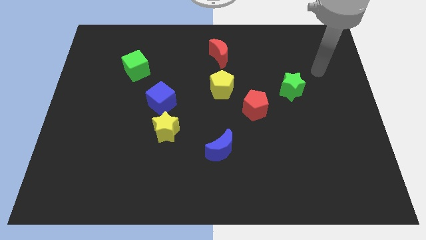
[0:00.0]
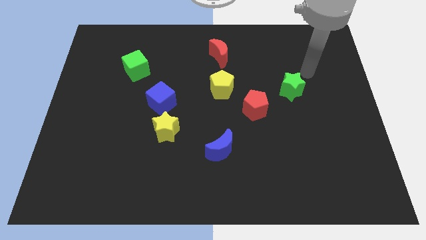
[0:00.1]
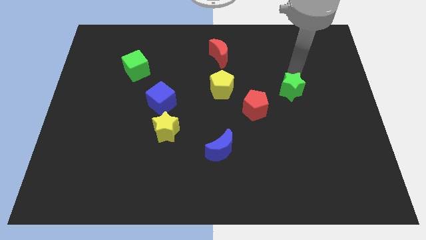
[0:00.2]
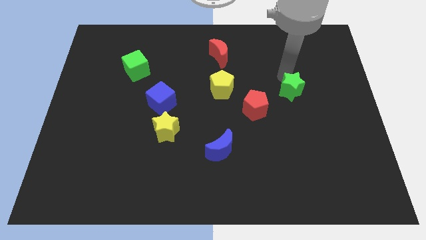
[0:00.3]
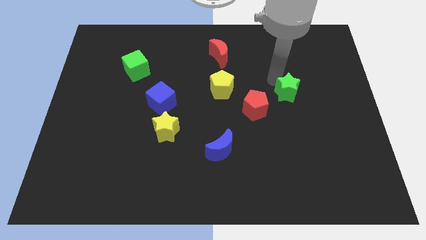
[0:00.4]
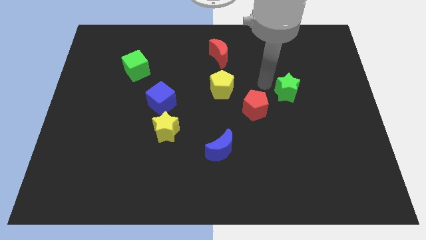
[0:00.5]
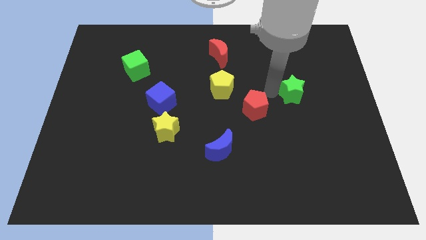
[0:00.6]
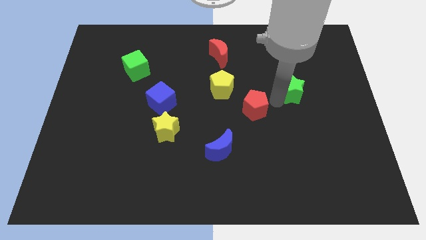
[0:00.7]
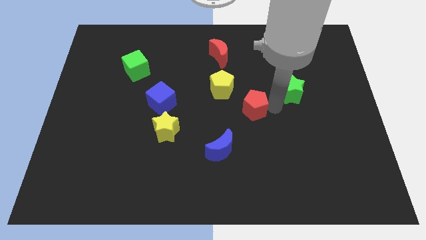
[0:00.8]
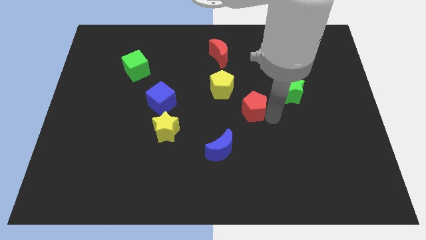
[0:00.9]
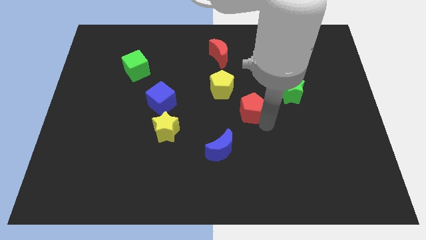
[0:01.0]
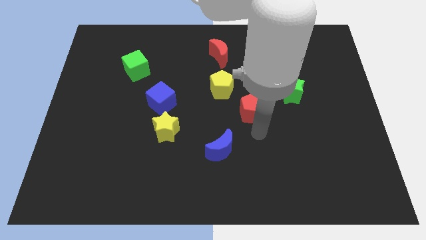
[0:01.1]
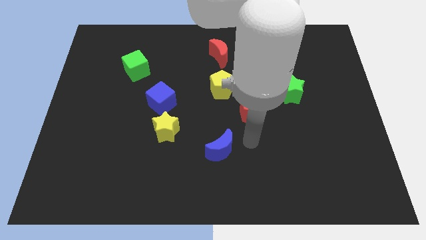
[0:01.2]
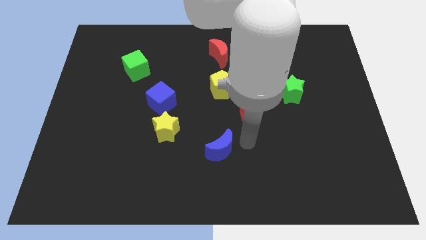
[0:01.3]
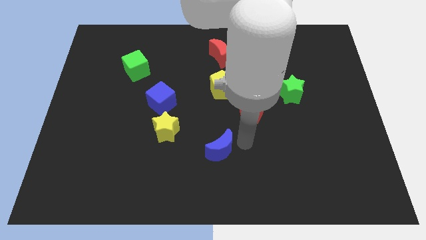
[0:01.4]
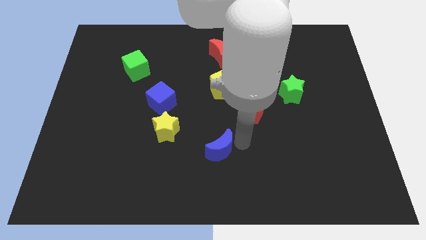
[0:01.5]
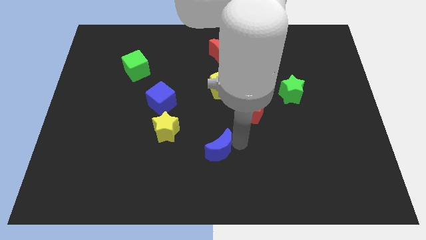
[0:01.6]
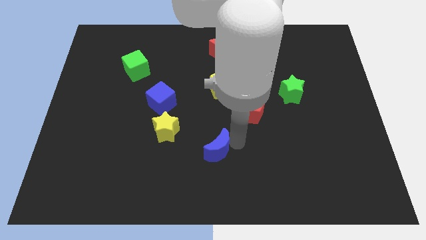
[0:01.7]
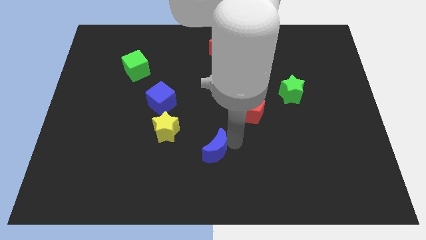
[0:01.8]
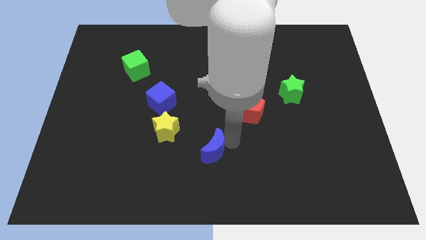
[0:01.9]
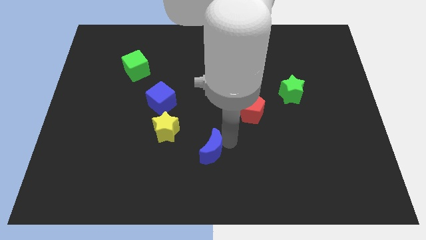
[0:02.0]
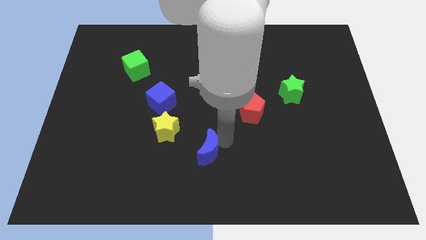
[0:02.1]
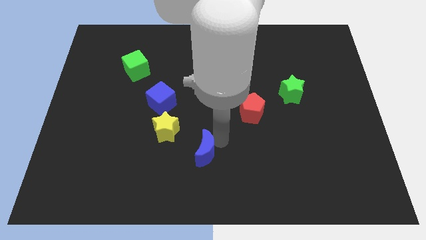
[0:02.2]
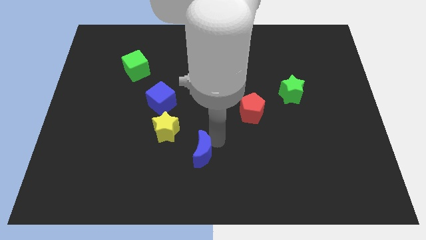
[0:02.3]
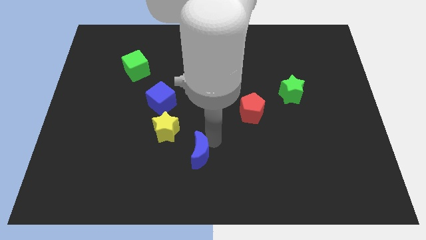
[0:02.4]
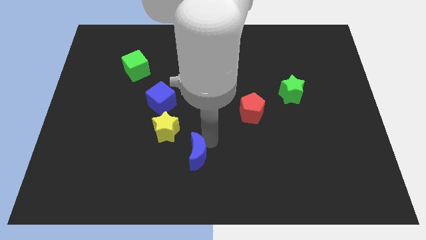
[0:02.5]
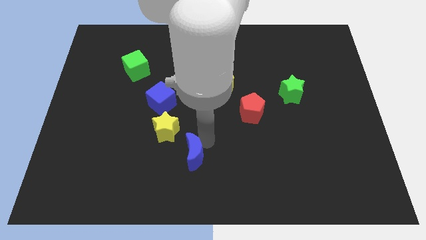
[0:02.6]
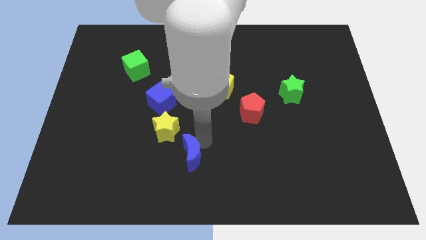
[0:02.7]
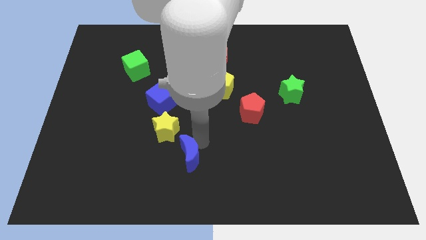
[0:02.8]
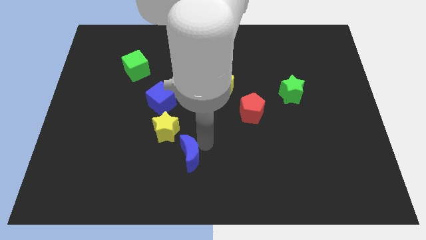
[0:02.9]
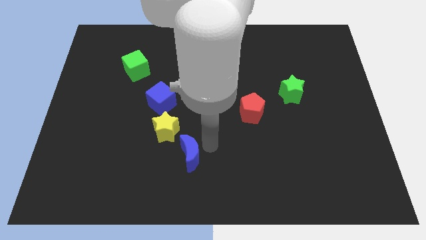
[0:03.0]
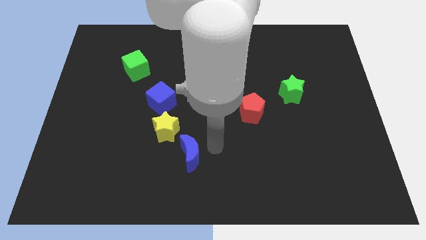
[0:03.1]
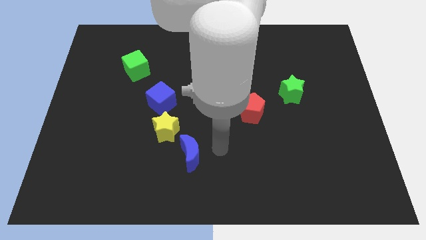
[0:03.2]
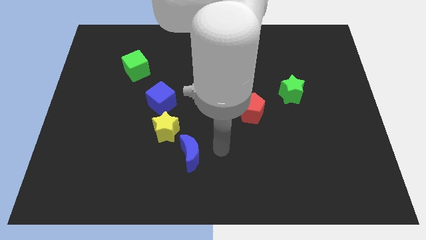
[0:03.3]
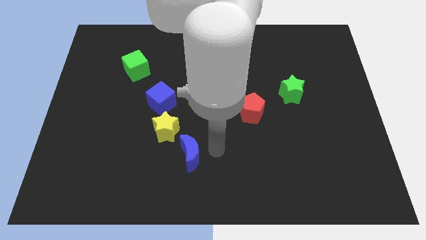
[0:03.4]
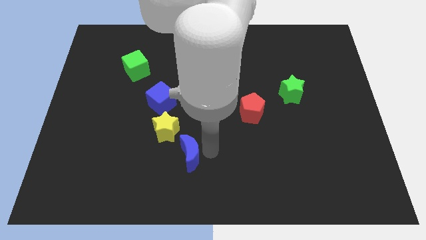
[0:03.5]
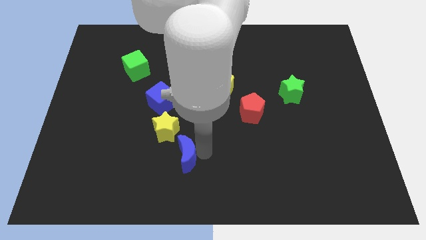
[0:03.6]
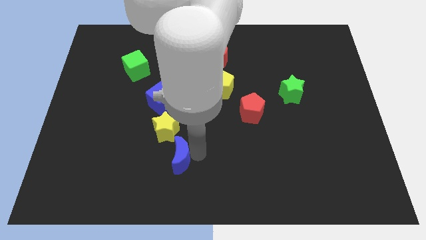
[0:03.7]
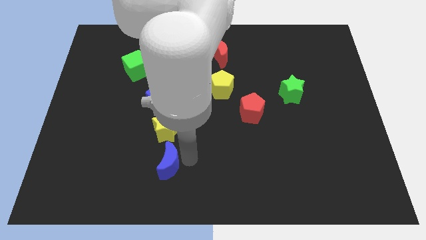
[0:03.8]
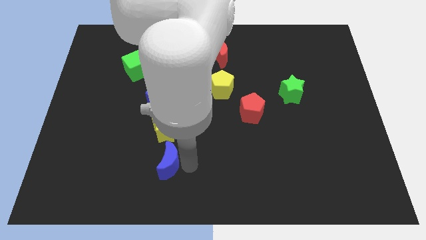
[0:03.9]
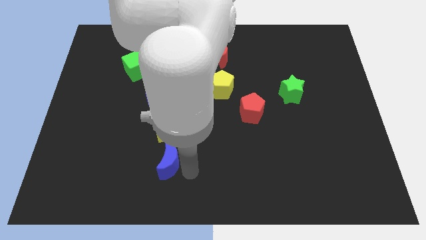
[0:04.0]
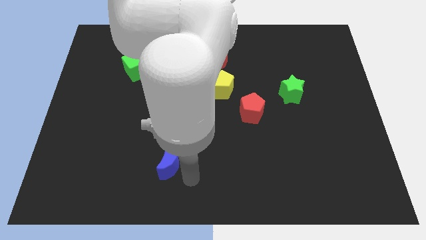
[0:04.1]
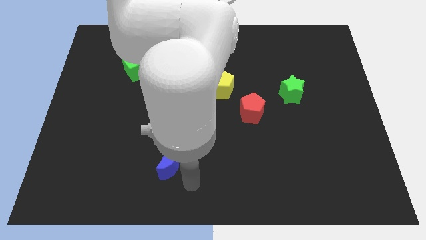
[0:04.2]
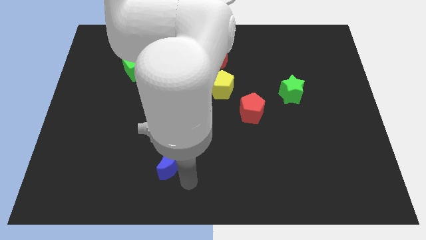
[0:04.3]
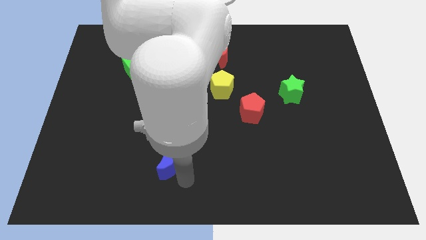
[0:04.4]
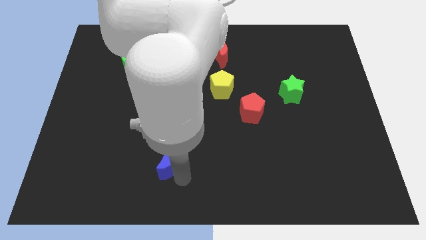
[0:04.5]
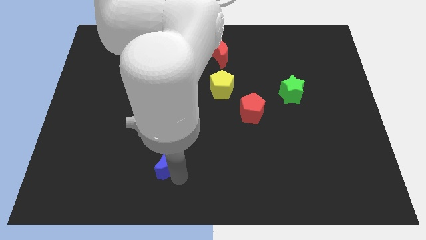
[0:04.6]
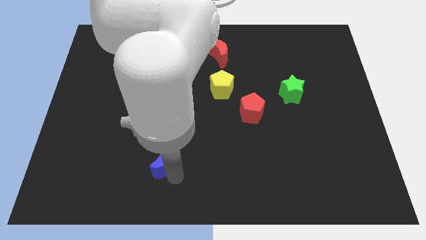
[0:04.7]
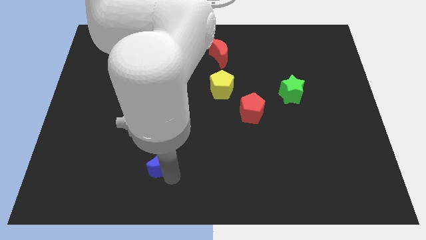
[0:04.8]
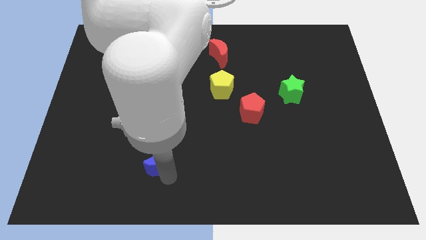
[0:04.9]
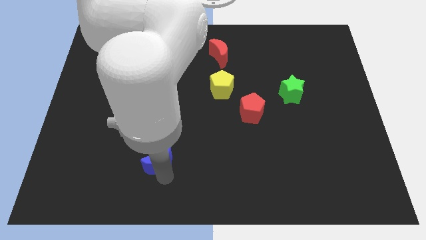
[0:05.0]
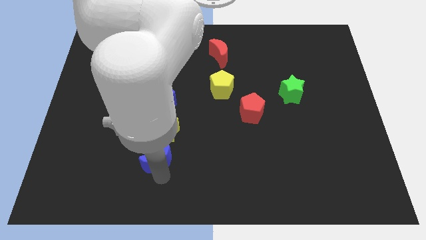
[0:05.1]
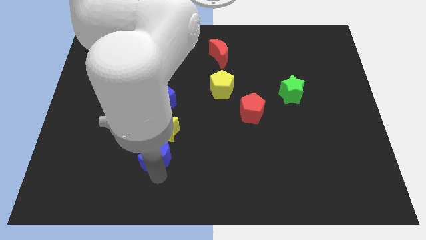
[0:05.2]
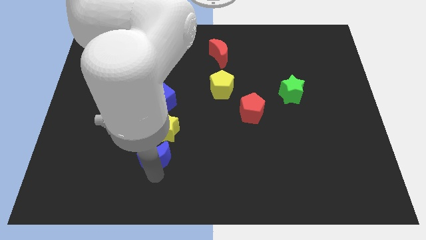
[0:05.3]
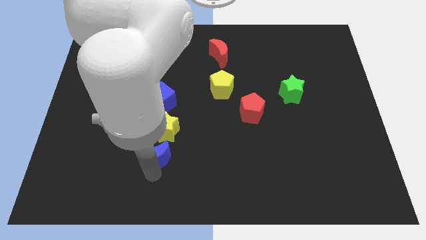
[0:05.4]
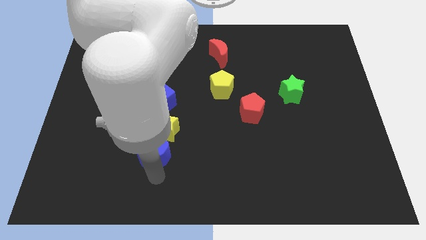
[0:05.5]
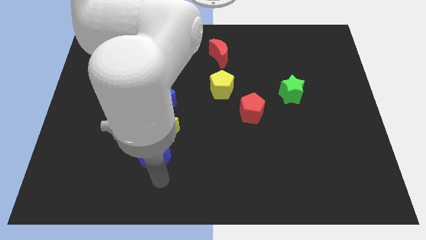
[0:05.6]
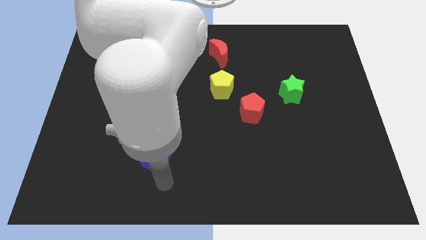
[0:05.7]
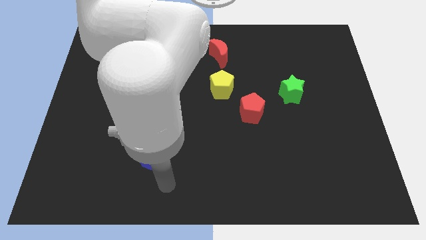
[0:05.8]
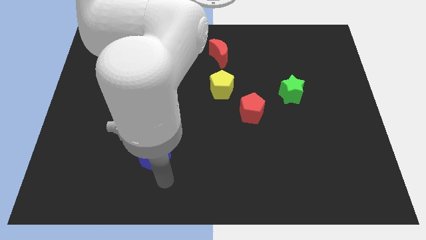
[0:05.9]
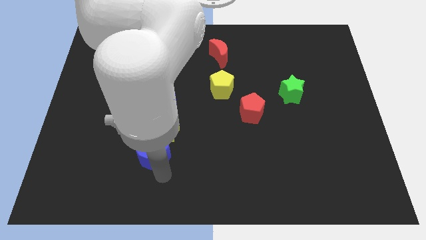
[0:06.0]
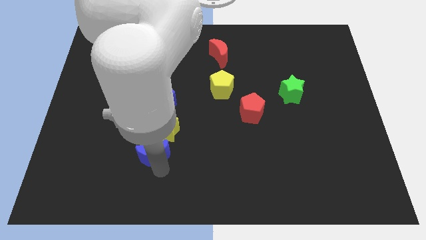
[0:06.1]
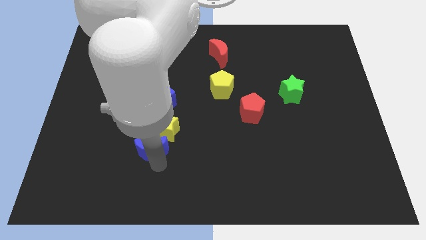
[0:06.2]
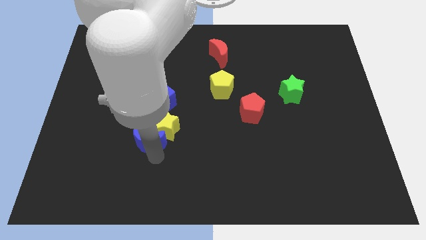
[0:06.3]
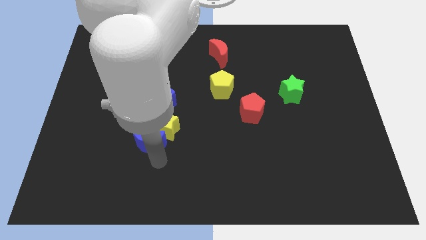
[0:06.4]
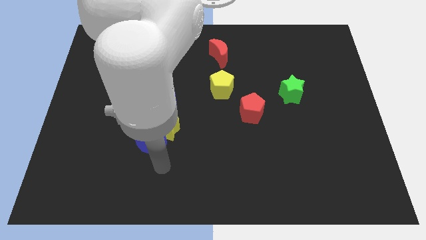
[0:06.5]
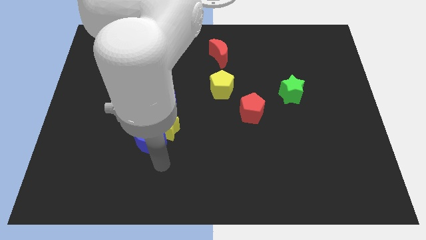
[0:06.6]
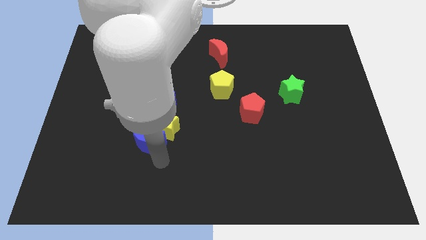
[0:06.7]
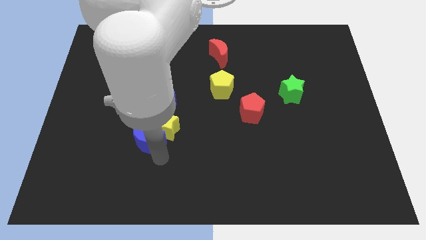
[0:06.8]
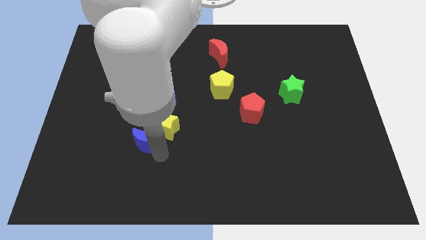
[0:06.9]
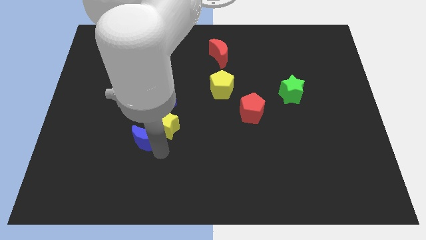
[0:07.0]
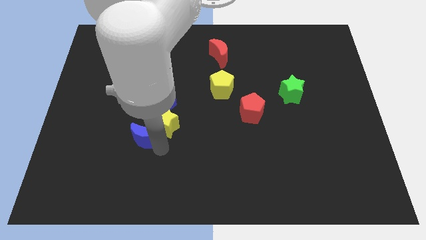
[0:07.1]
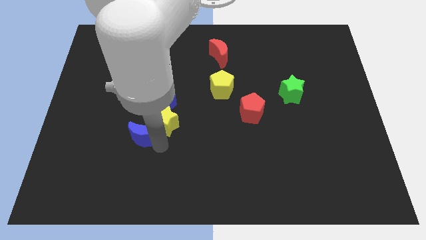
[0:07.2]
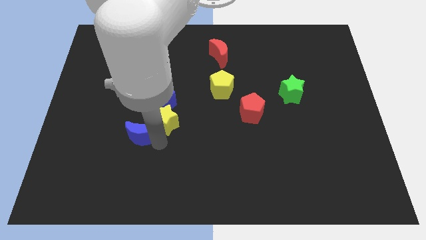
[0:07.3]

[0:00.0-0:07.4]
put the blue moon to the bottom left side of the blue cube

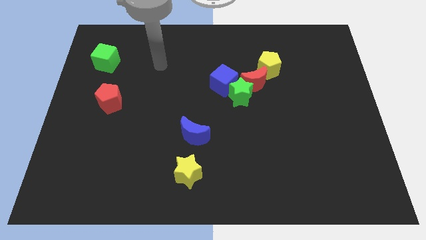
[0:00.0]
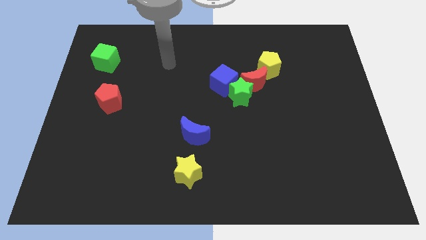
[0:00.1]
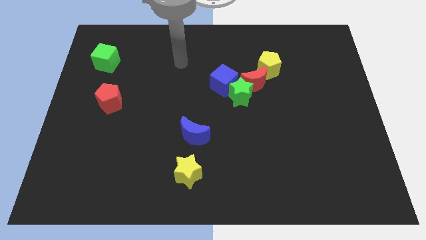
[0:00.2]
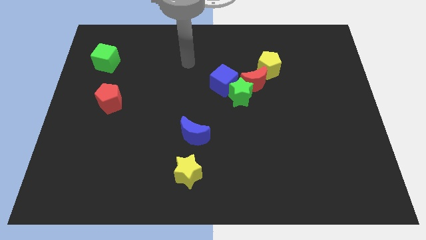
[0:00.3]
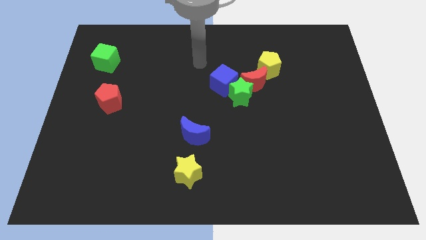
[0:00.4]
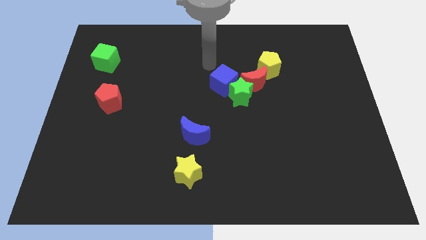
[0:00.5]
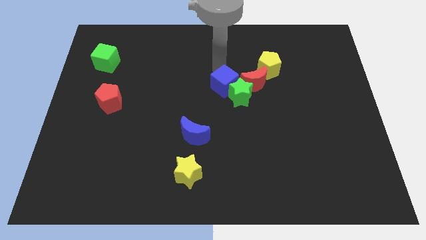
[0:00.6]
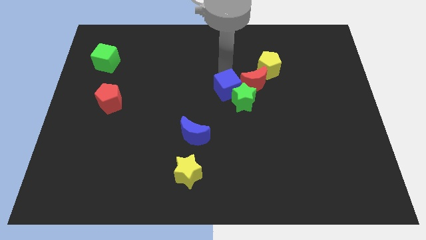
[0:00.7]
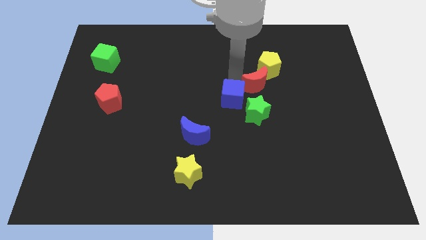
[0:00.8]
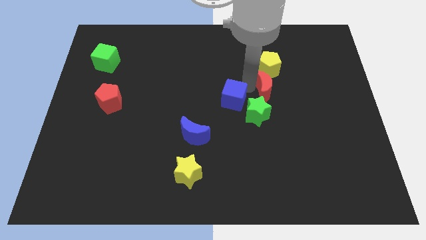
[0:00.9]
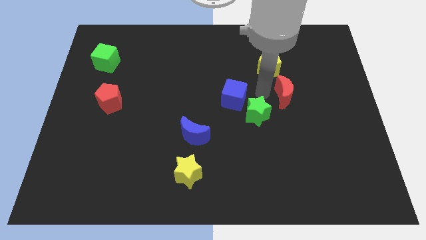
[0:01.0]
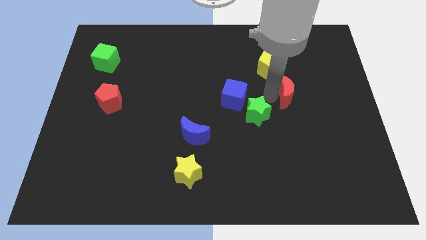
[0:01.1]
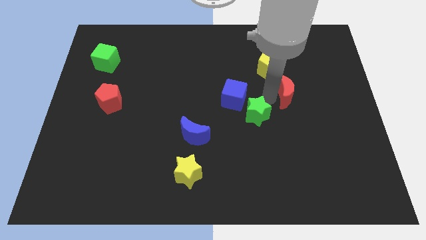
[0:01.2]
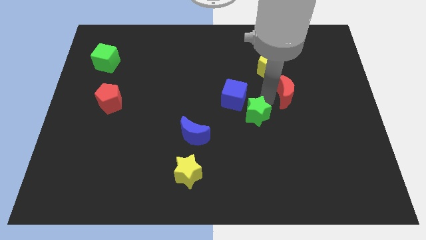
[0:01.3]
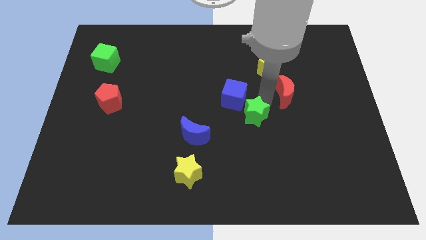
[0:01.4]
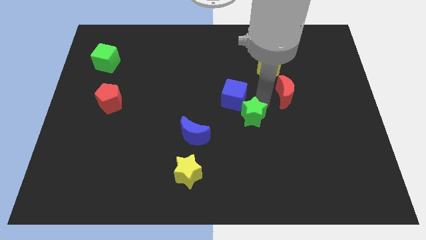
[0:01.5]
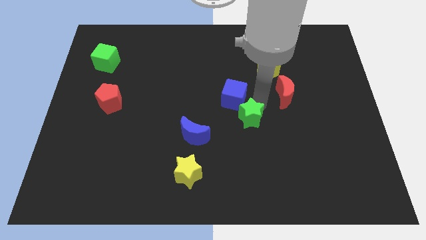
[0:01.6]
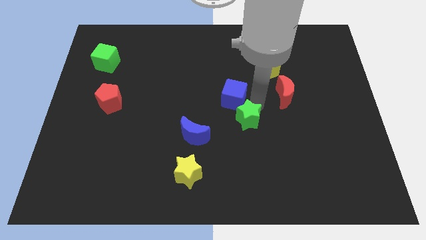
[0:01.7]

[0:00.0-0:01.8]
move the green star just right of the blue moon
